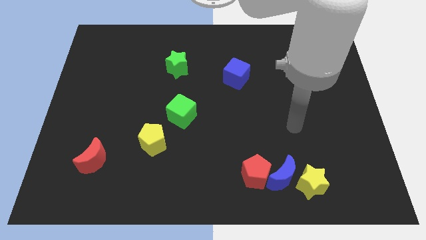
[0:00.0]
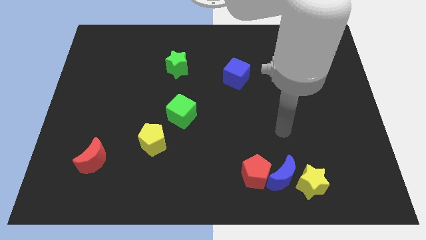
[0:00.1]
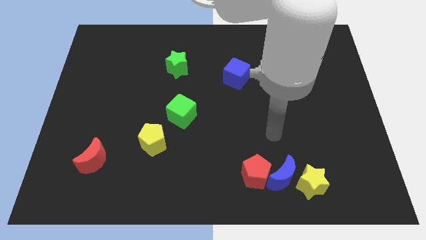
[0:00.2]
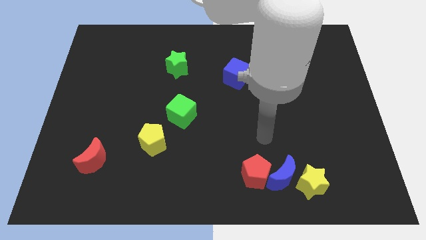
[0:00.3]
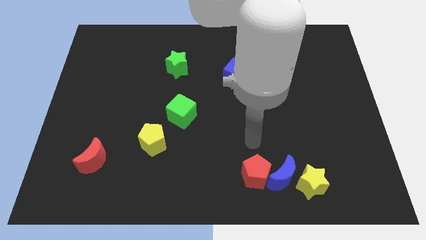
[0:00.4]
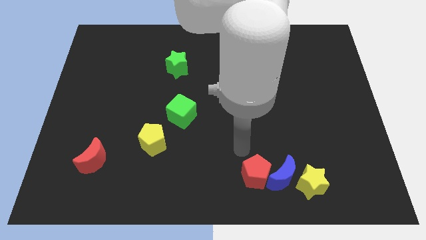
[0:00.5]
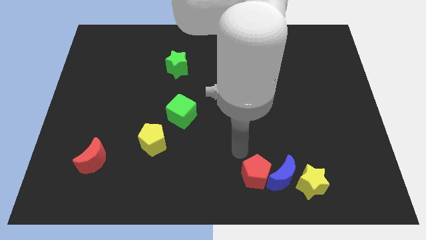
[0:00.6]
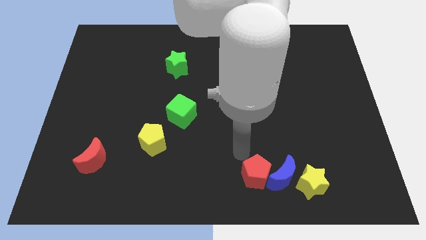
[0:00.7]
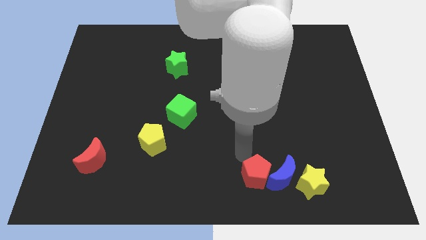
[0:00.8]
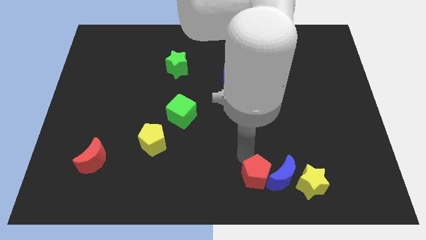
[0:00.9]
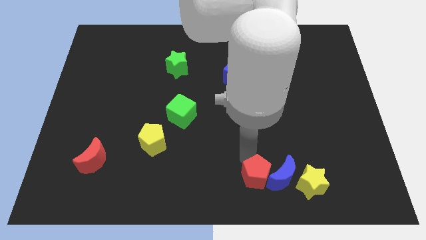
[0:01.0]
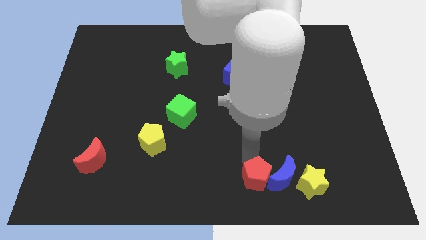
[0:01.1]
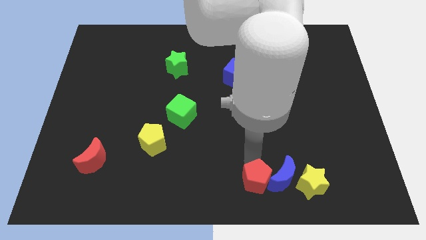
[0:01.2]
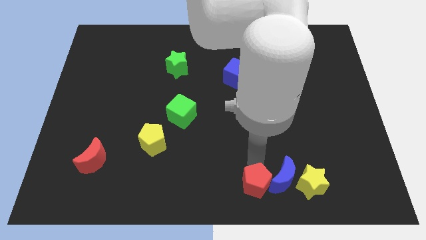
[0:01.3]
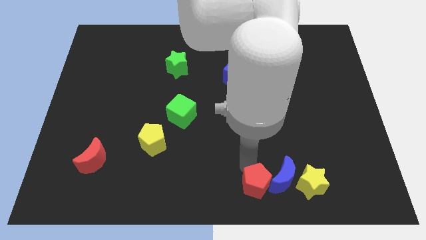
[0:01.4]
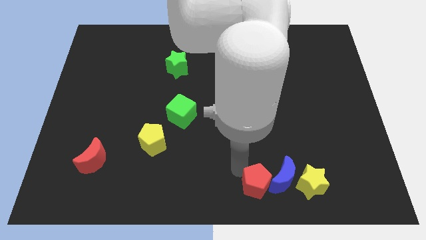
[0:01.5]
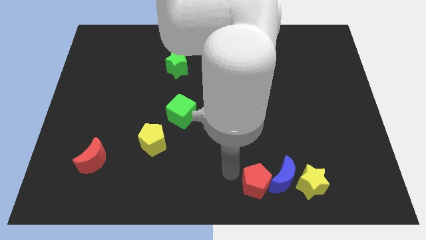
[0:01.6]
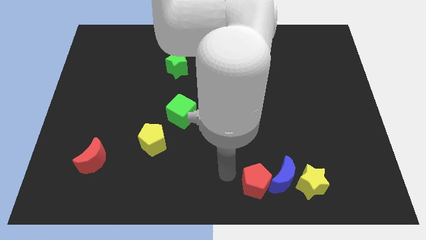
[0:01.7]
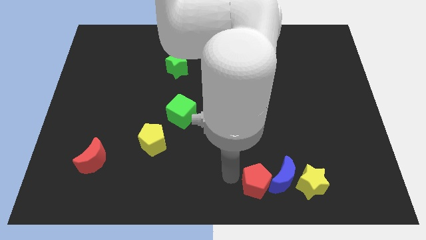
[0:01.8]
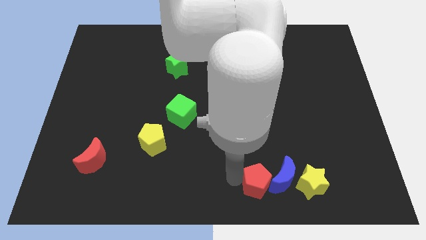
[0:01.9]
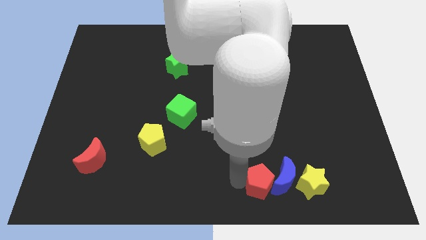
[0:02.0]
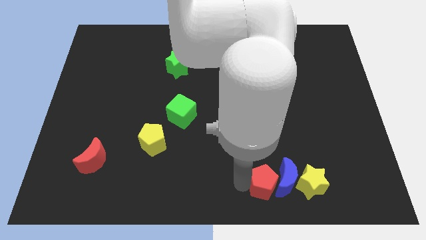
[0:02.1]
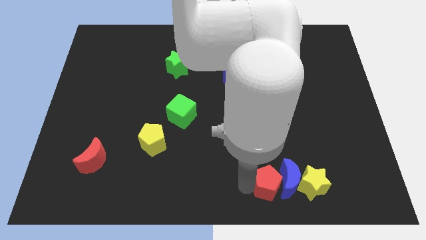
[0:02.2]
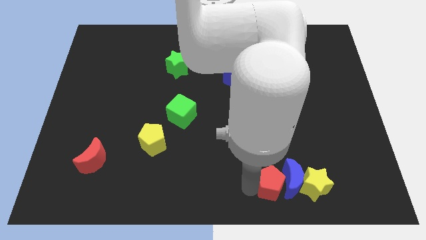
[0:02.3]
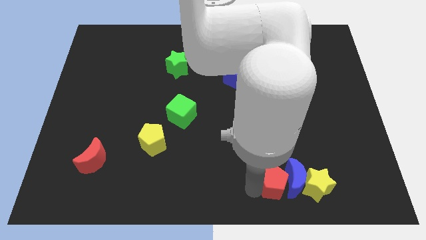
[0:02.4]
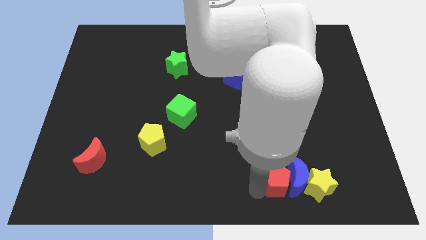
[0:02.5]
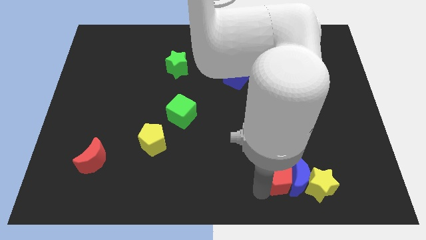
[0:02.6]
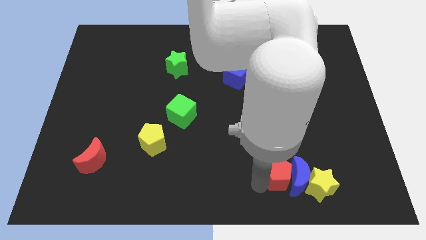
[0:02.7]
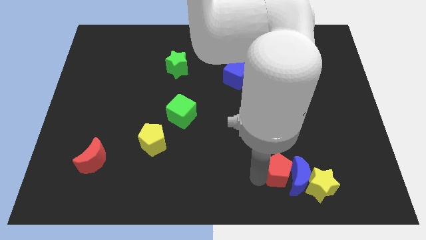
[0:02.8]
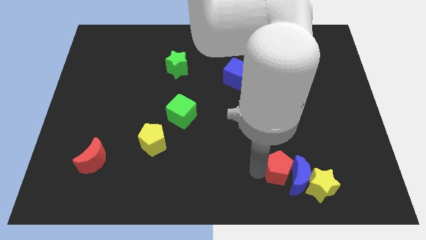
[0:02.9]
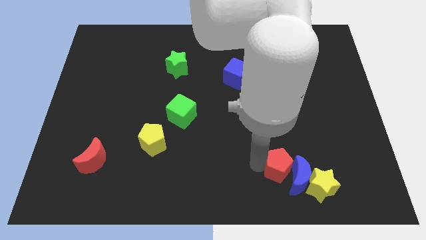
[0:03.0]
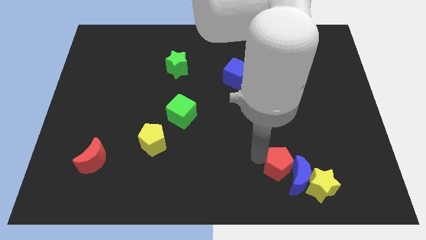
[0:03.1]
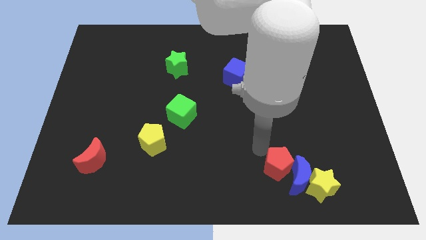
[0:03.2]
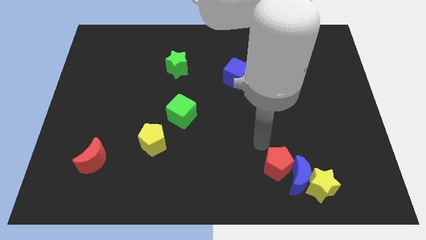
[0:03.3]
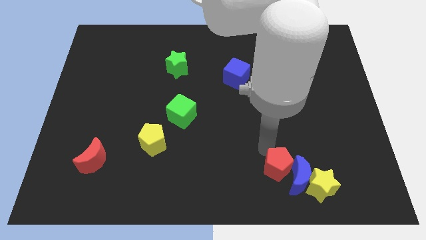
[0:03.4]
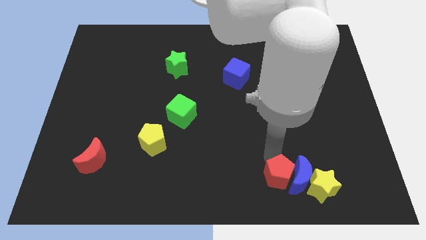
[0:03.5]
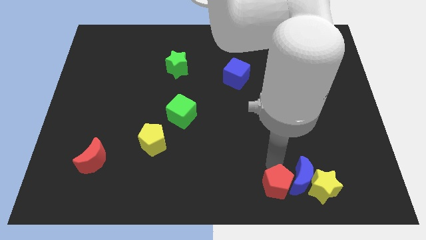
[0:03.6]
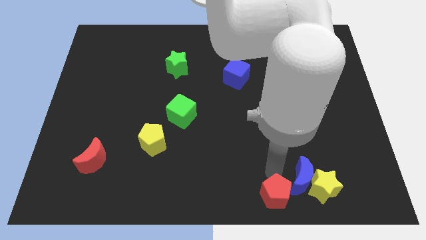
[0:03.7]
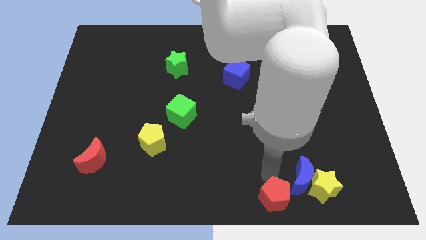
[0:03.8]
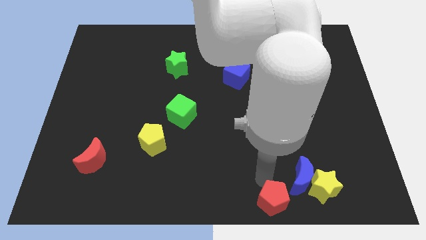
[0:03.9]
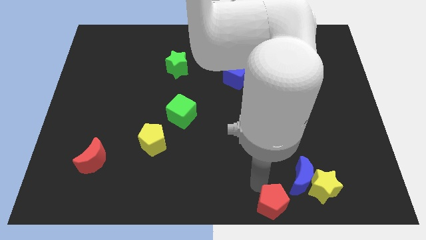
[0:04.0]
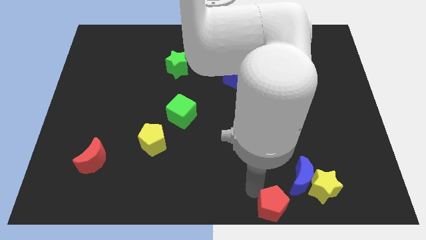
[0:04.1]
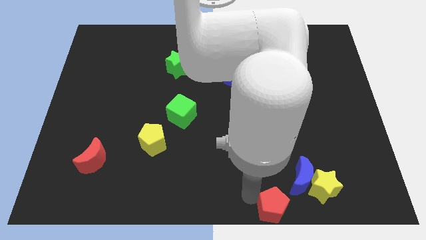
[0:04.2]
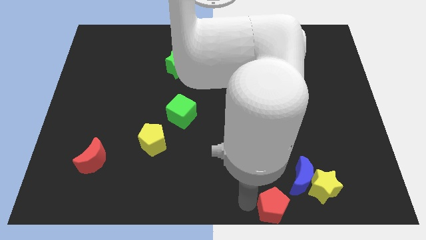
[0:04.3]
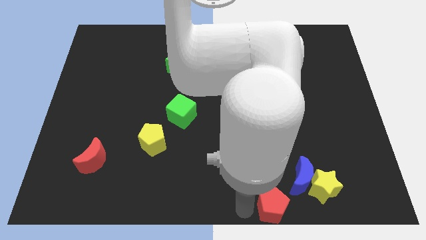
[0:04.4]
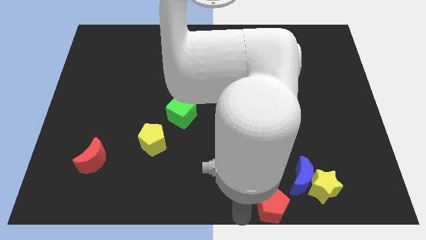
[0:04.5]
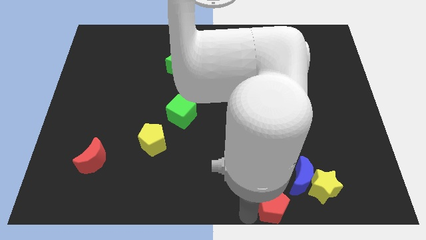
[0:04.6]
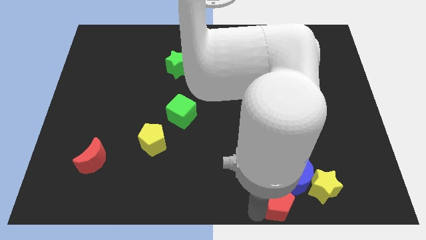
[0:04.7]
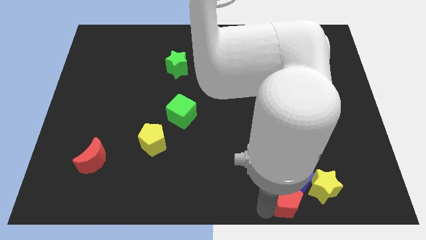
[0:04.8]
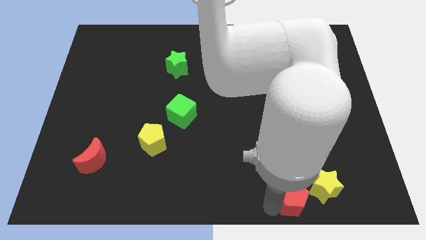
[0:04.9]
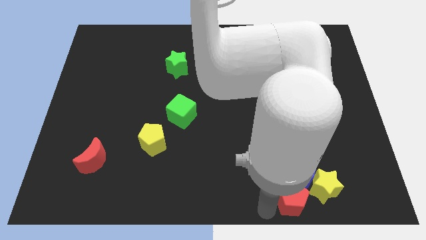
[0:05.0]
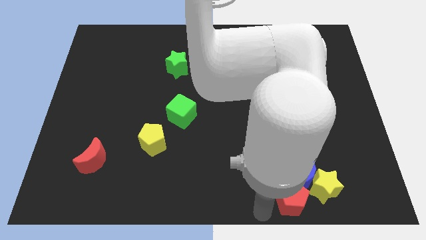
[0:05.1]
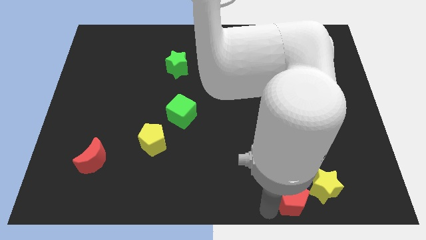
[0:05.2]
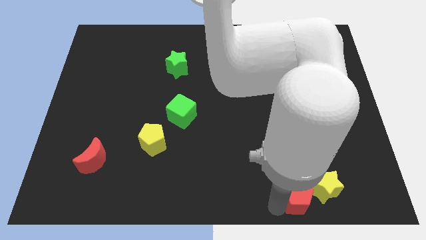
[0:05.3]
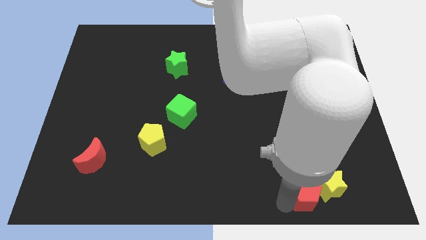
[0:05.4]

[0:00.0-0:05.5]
put the red pentagon close to the yellow star

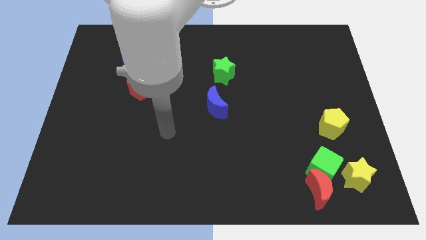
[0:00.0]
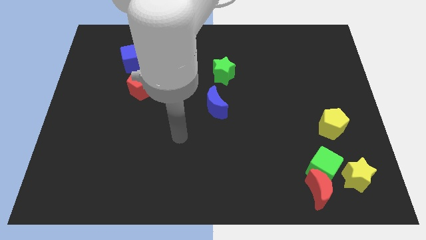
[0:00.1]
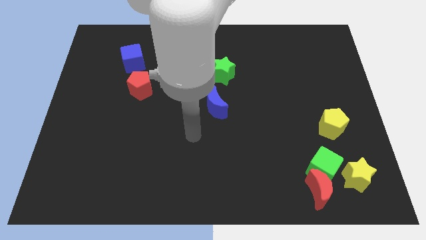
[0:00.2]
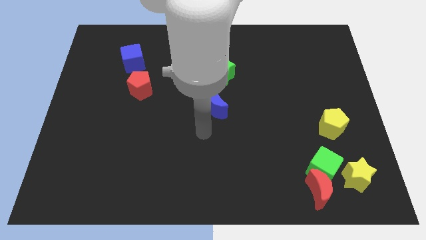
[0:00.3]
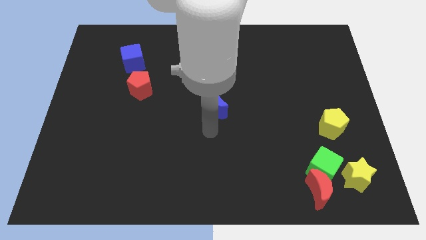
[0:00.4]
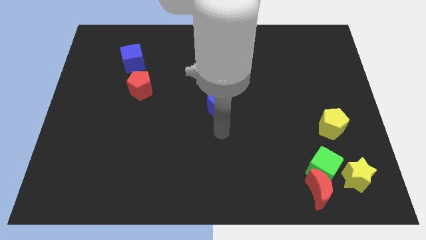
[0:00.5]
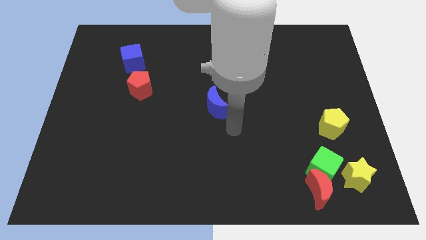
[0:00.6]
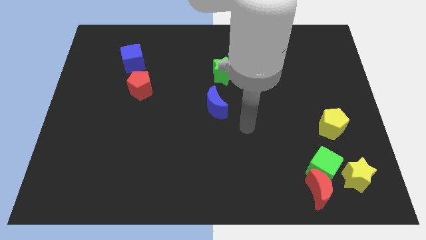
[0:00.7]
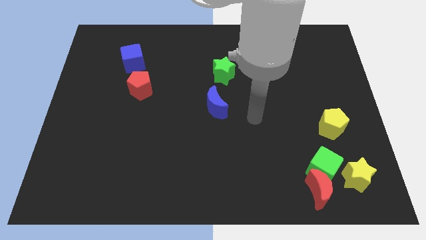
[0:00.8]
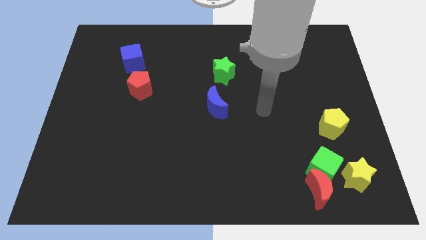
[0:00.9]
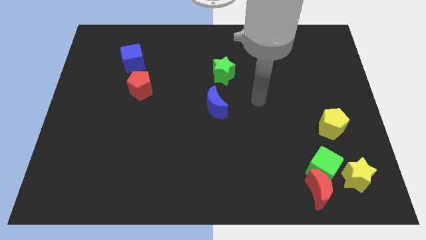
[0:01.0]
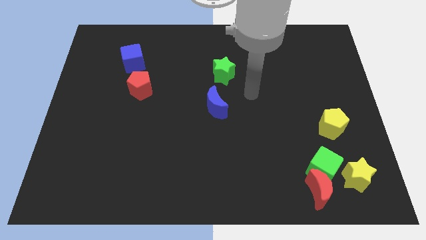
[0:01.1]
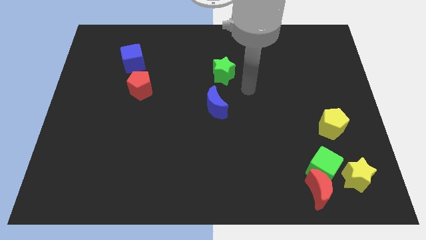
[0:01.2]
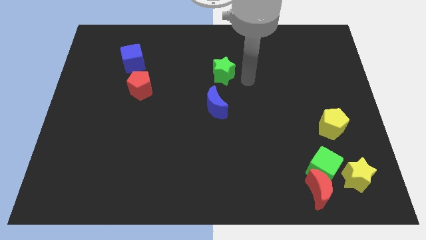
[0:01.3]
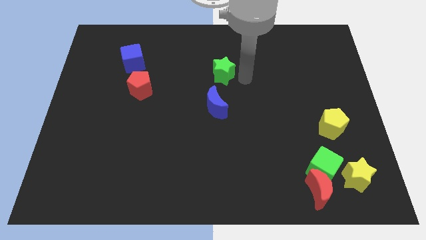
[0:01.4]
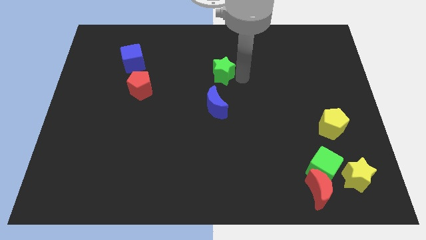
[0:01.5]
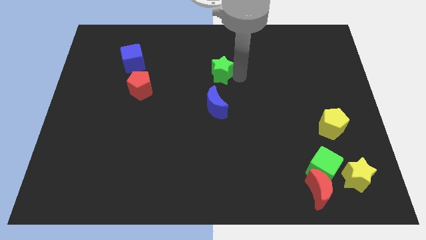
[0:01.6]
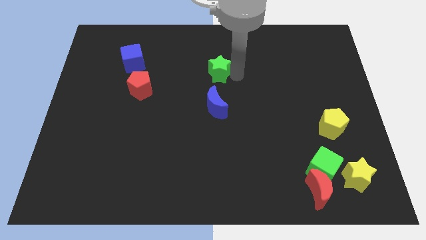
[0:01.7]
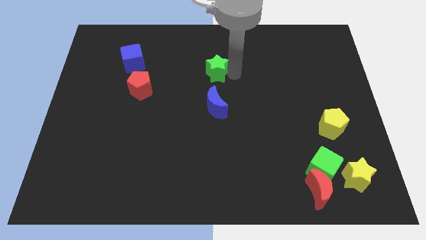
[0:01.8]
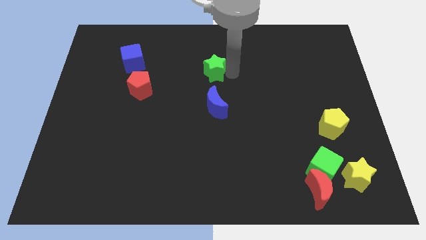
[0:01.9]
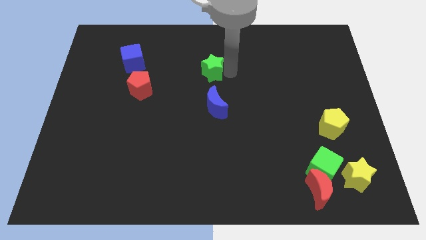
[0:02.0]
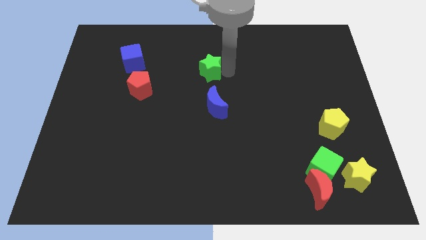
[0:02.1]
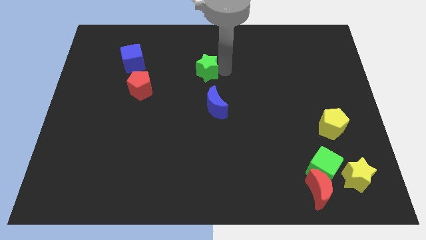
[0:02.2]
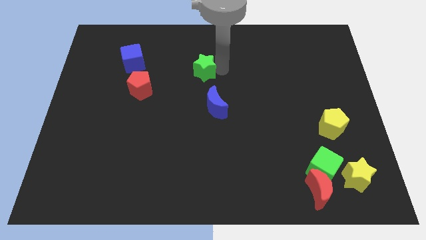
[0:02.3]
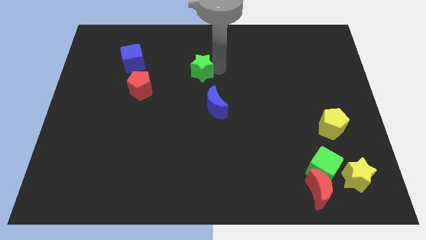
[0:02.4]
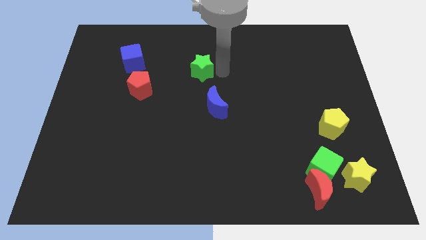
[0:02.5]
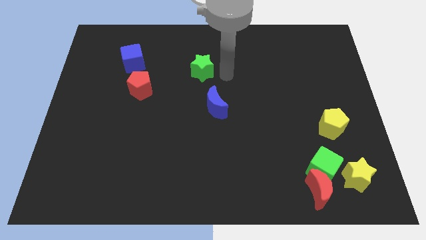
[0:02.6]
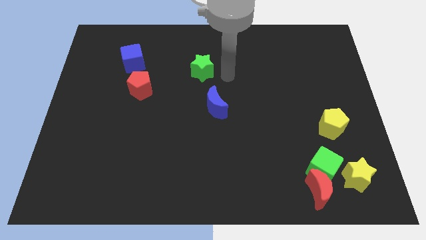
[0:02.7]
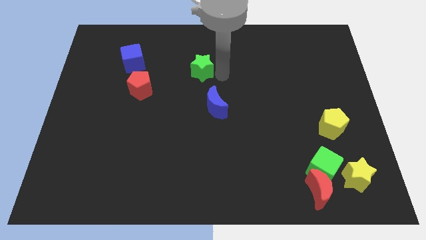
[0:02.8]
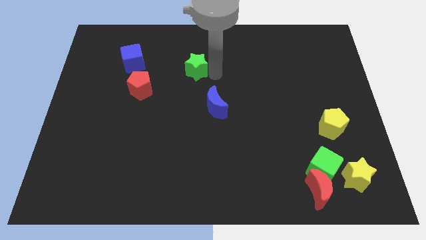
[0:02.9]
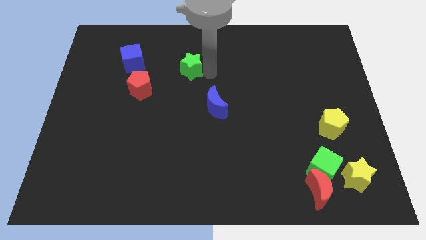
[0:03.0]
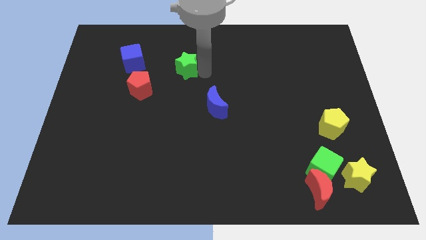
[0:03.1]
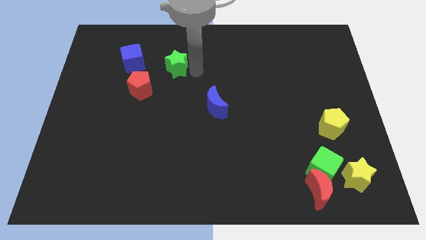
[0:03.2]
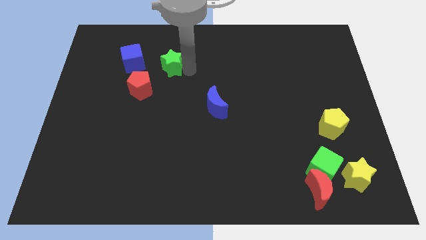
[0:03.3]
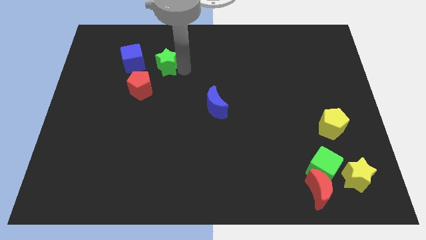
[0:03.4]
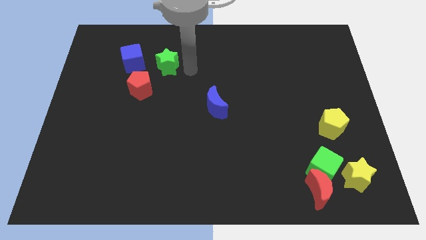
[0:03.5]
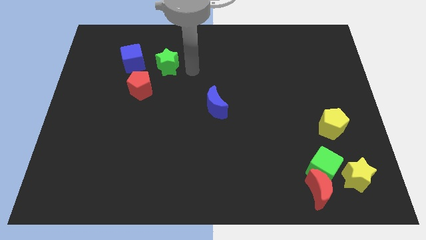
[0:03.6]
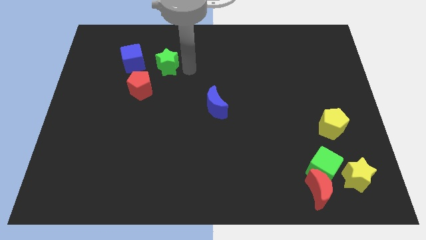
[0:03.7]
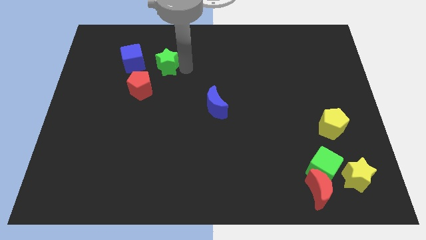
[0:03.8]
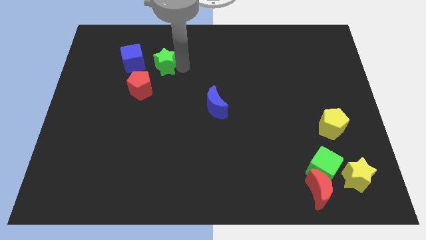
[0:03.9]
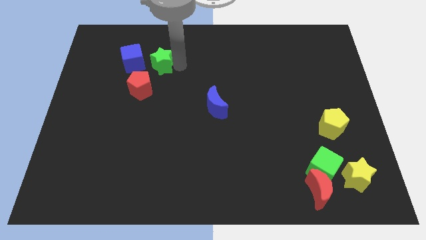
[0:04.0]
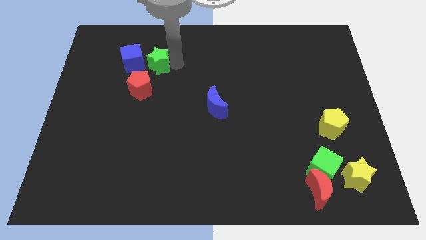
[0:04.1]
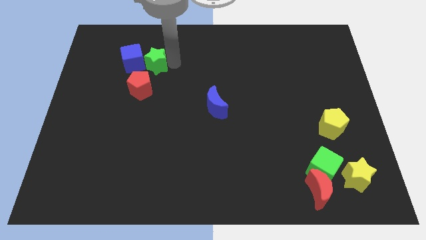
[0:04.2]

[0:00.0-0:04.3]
slide the green star towards the blue cube
